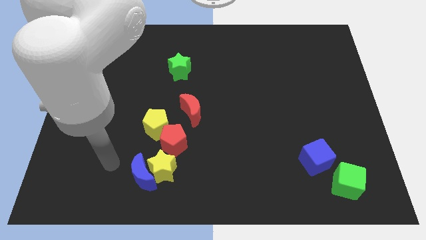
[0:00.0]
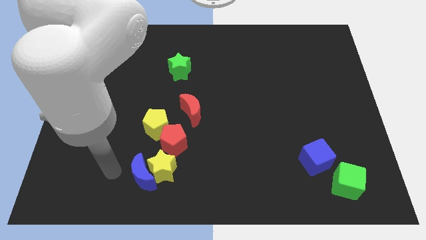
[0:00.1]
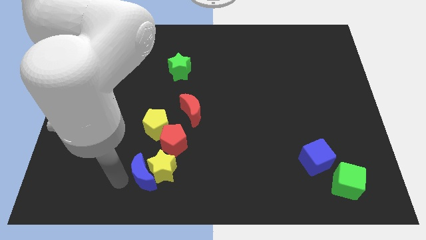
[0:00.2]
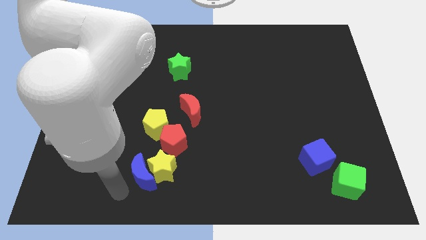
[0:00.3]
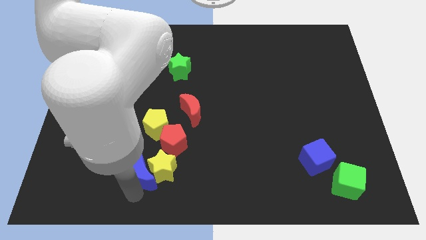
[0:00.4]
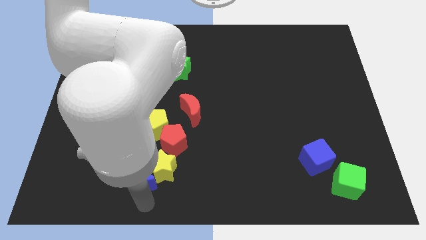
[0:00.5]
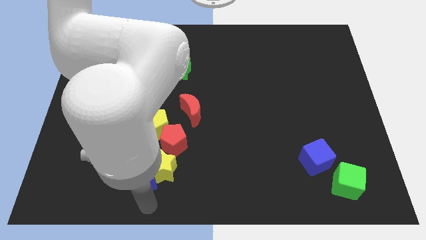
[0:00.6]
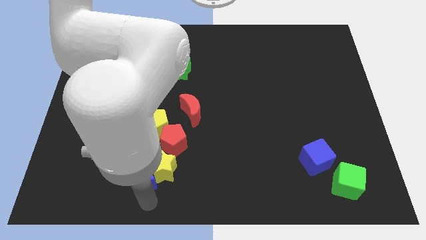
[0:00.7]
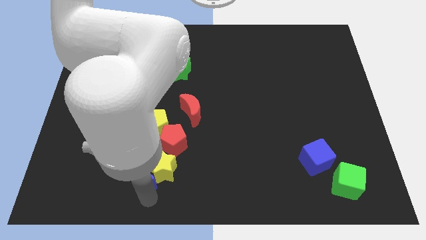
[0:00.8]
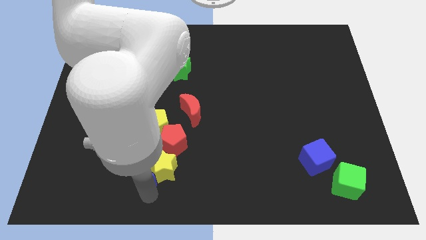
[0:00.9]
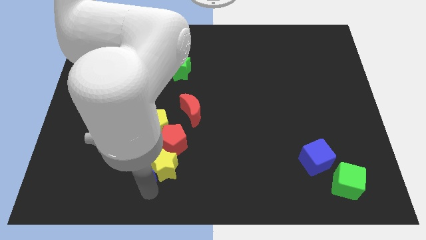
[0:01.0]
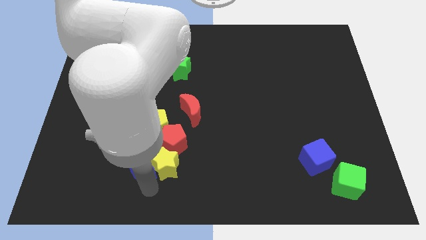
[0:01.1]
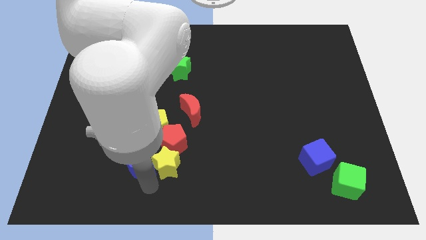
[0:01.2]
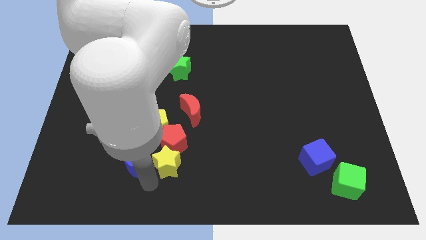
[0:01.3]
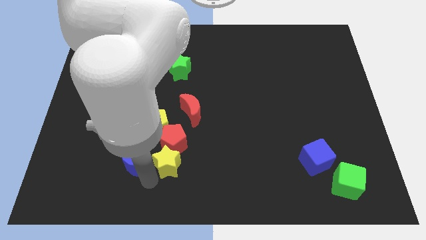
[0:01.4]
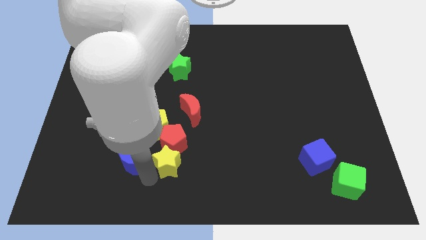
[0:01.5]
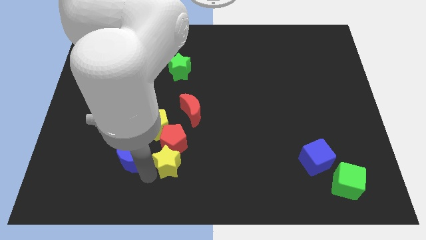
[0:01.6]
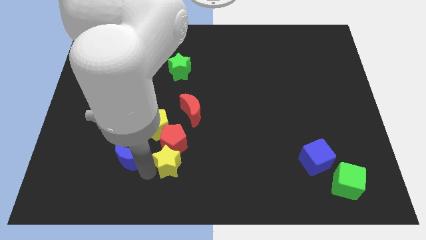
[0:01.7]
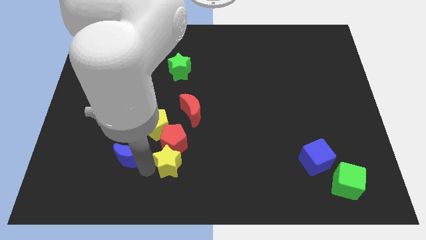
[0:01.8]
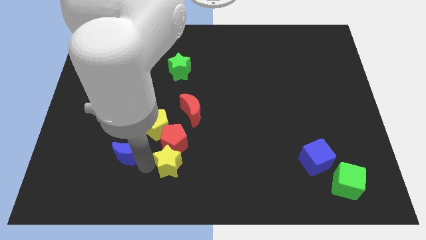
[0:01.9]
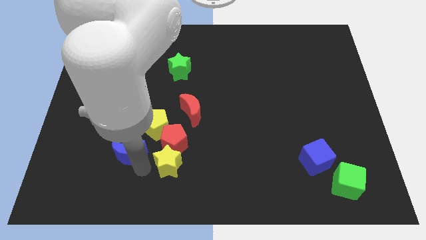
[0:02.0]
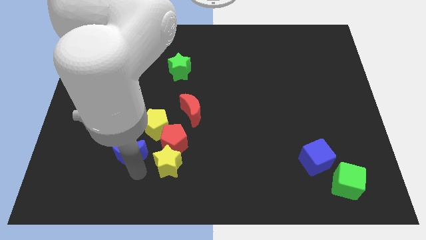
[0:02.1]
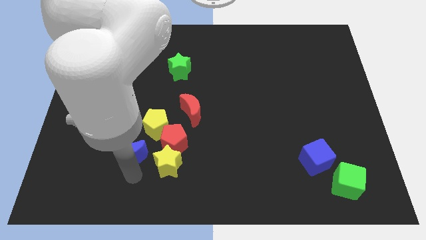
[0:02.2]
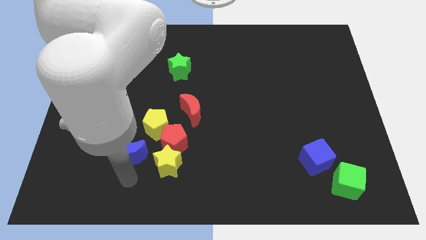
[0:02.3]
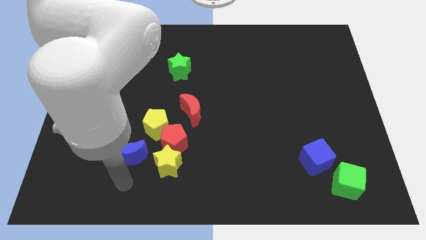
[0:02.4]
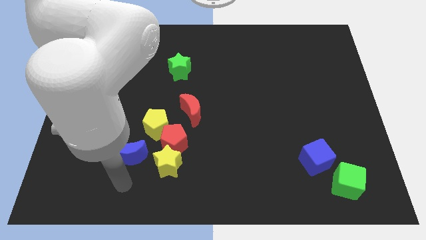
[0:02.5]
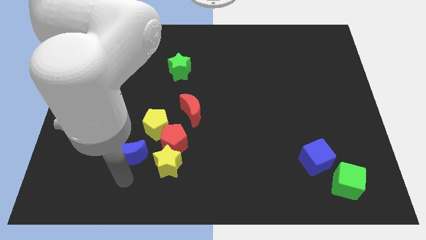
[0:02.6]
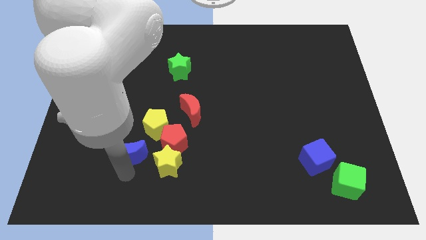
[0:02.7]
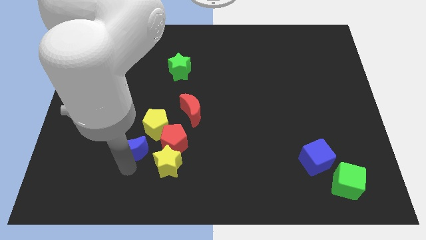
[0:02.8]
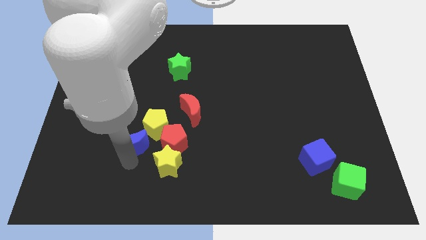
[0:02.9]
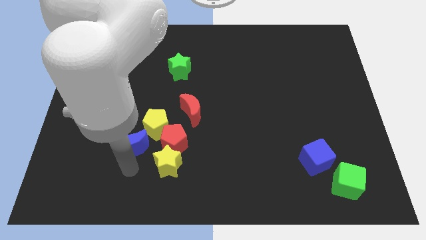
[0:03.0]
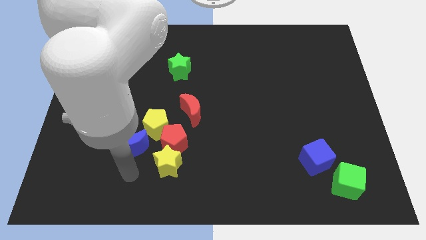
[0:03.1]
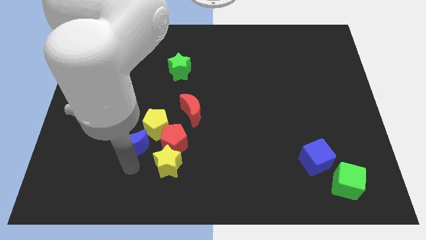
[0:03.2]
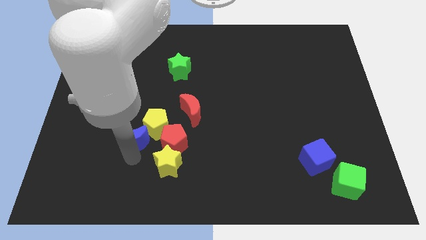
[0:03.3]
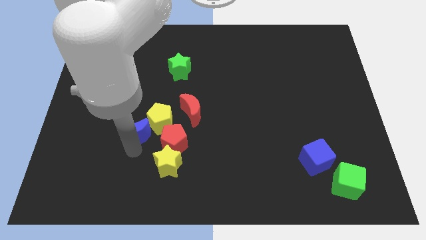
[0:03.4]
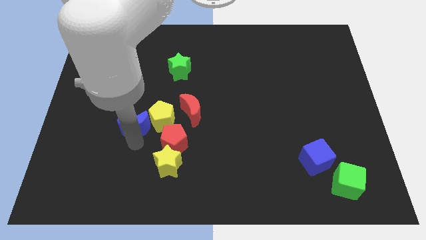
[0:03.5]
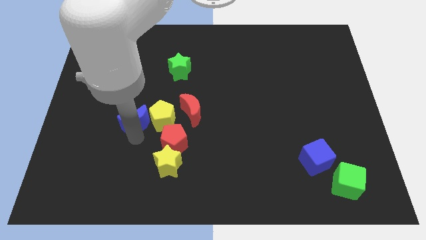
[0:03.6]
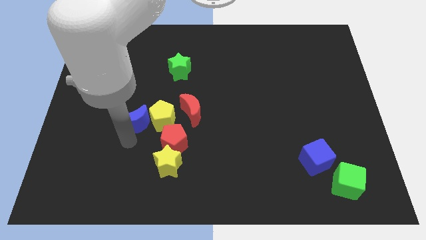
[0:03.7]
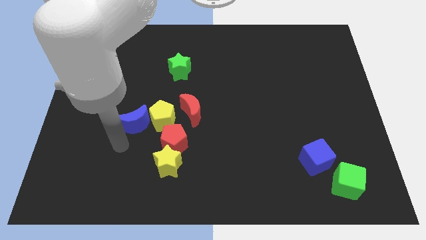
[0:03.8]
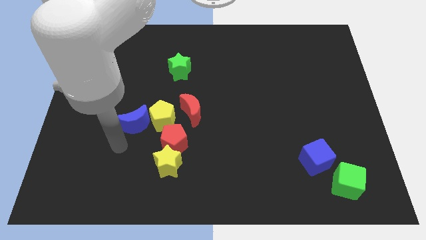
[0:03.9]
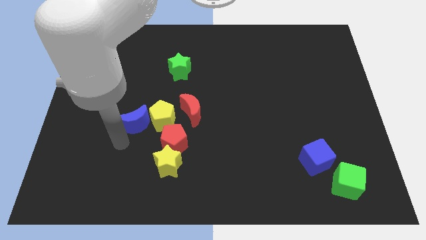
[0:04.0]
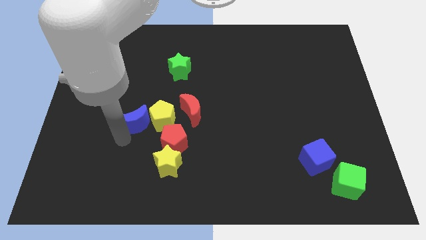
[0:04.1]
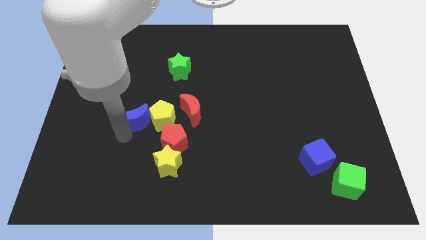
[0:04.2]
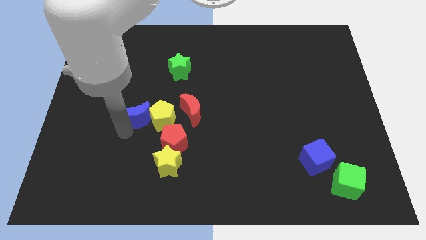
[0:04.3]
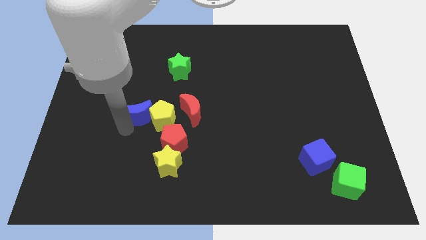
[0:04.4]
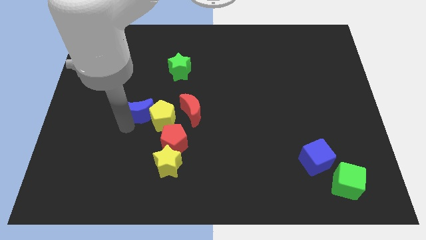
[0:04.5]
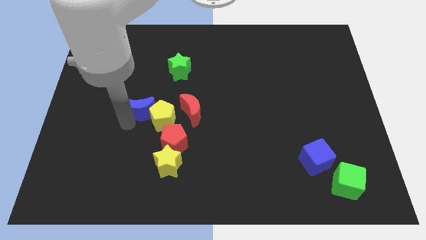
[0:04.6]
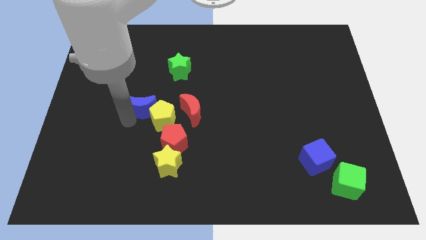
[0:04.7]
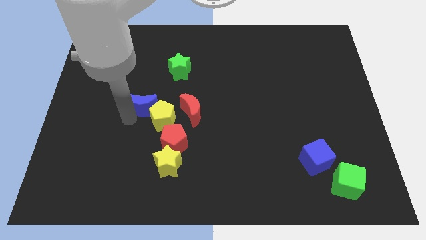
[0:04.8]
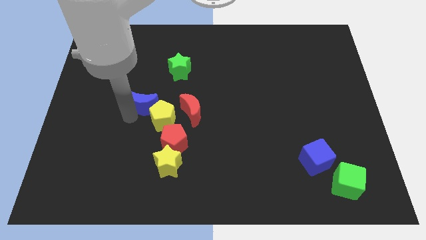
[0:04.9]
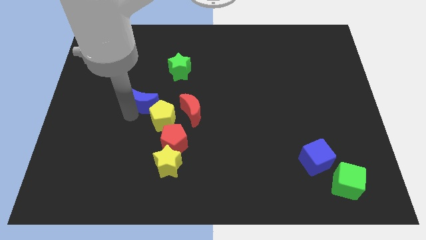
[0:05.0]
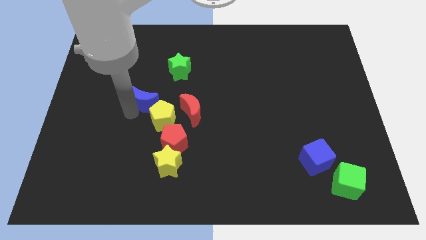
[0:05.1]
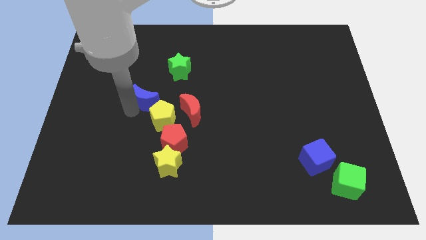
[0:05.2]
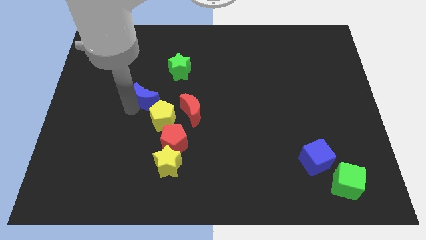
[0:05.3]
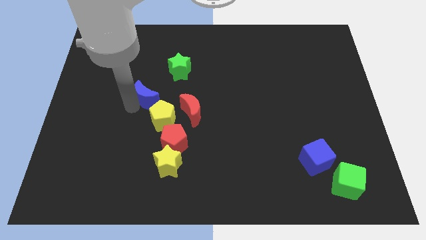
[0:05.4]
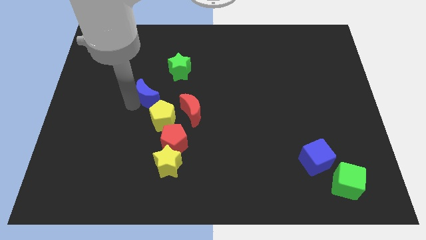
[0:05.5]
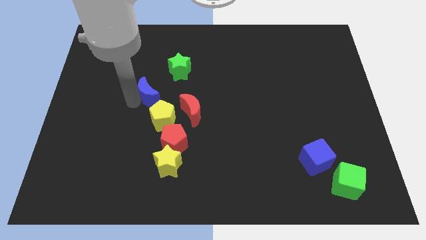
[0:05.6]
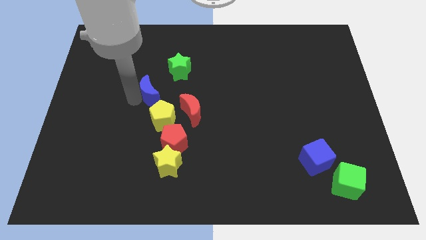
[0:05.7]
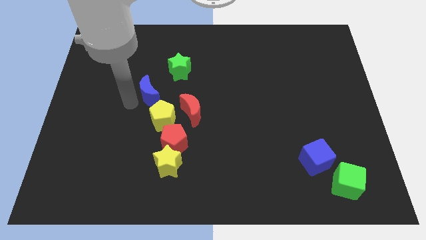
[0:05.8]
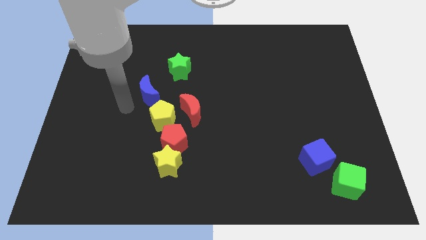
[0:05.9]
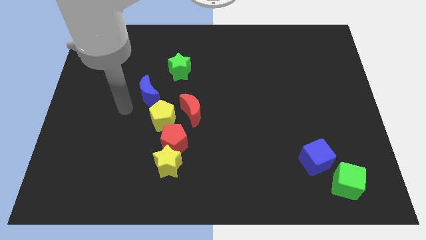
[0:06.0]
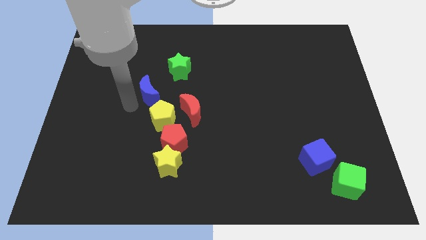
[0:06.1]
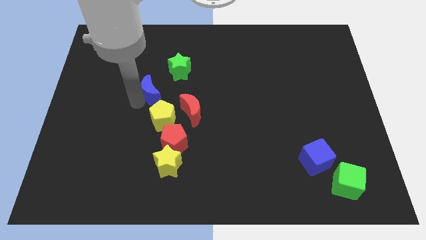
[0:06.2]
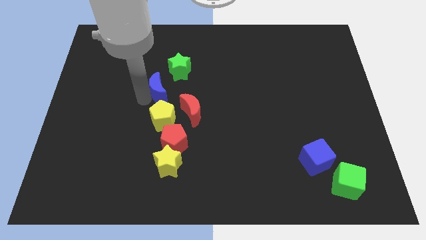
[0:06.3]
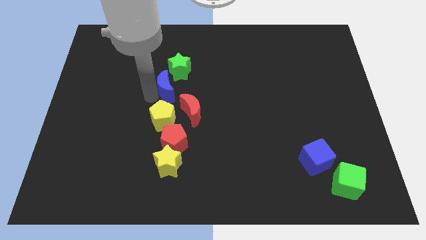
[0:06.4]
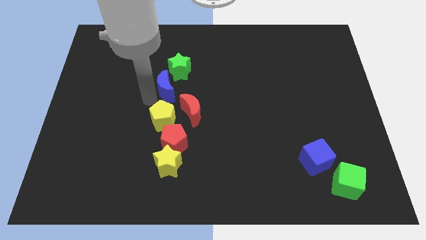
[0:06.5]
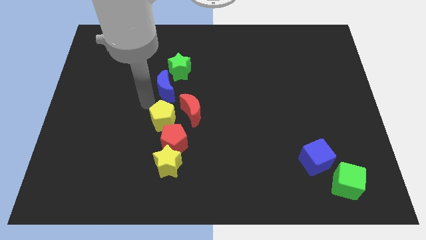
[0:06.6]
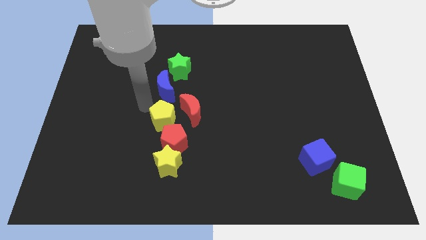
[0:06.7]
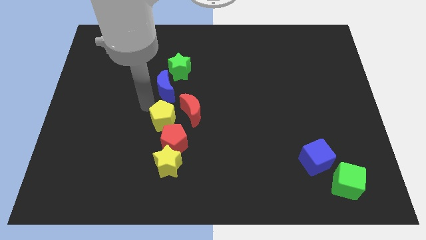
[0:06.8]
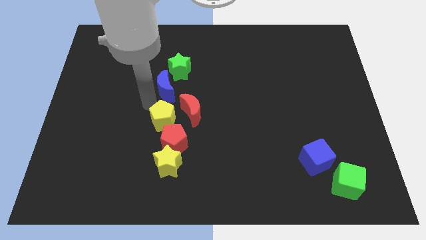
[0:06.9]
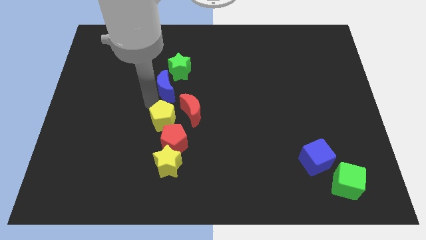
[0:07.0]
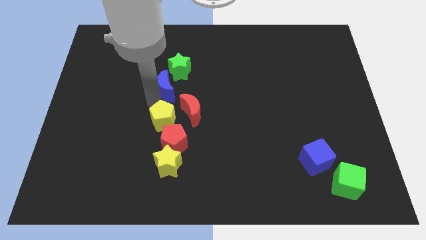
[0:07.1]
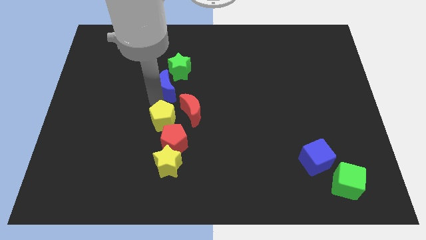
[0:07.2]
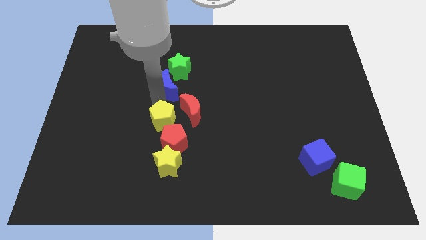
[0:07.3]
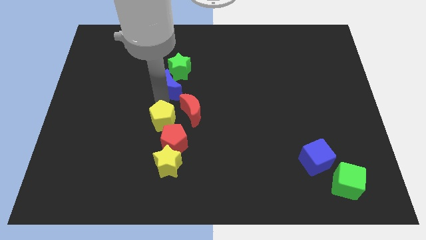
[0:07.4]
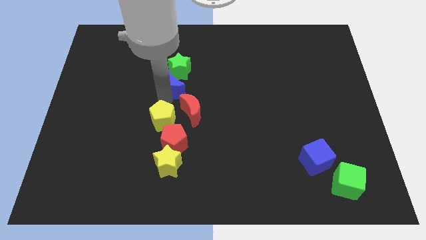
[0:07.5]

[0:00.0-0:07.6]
slide the blue moon to the green star

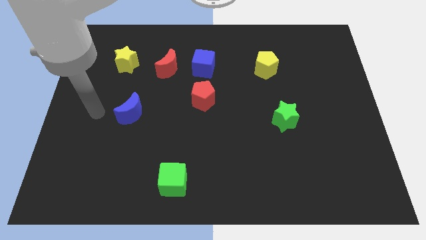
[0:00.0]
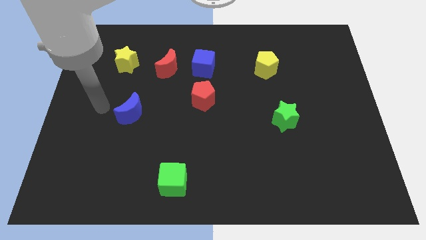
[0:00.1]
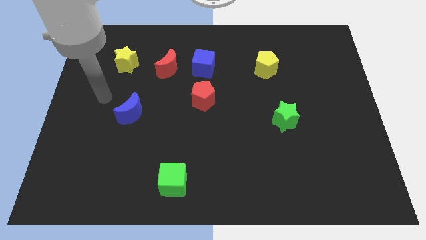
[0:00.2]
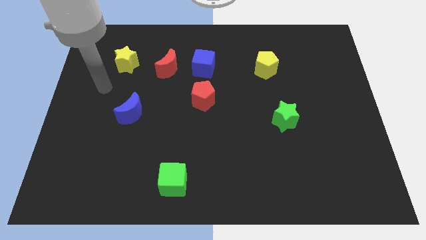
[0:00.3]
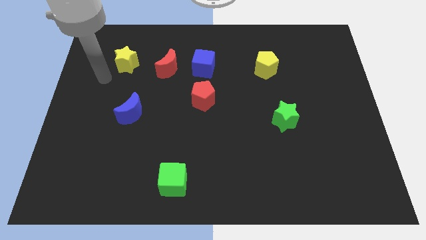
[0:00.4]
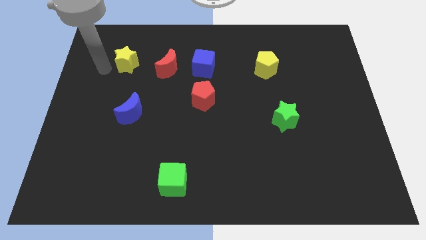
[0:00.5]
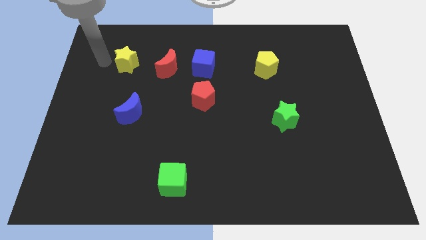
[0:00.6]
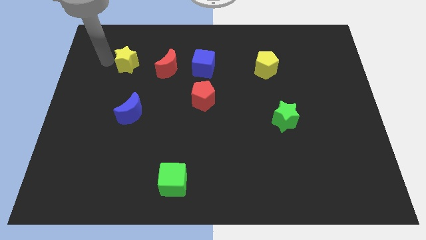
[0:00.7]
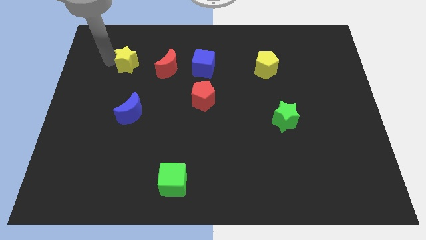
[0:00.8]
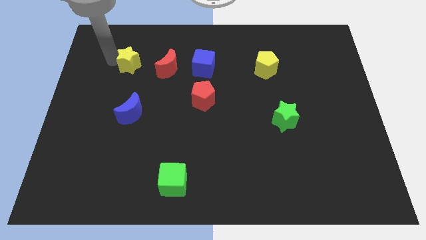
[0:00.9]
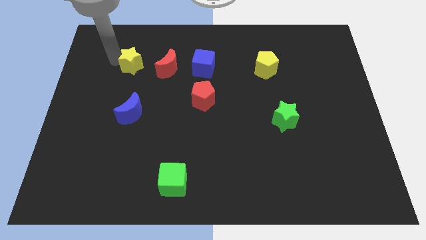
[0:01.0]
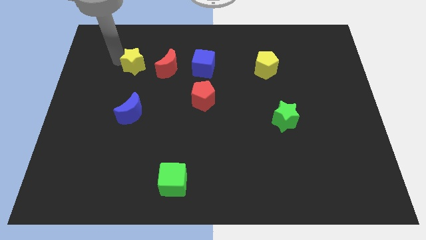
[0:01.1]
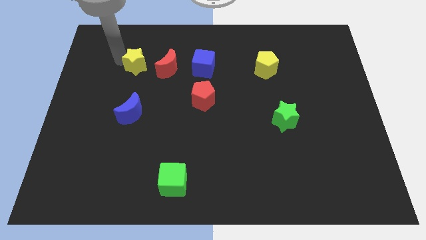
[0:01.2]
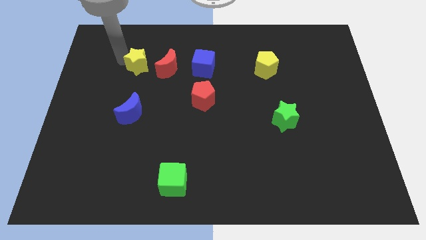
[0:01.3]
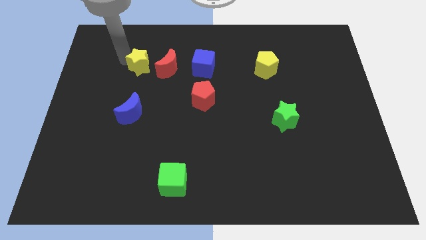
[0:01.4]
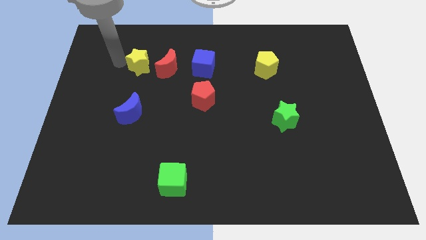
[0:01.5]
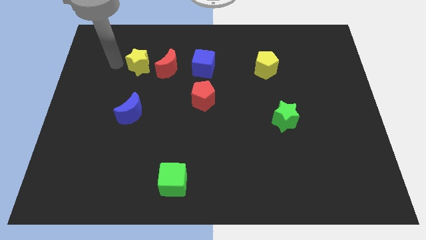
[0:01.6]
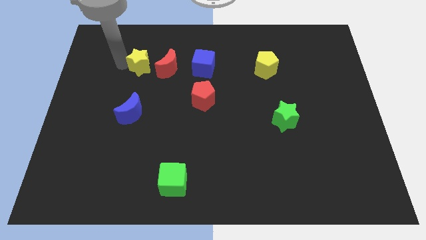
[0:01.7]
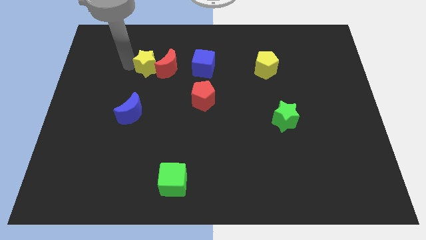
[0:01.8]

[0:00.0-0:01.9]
slide the yellow star close to the red moon
